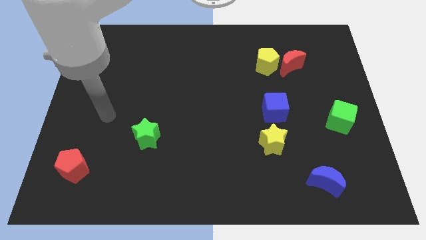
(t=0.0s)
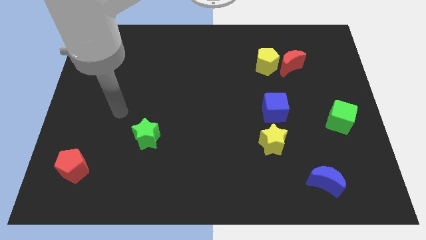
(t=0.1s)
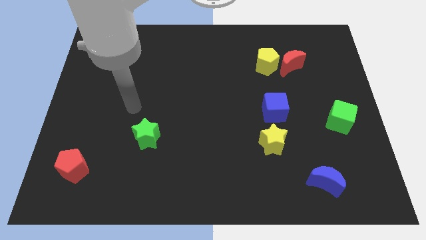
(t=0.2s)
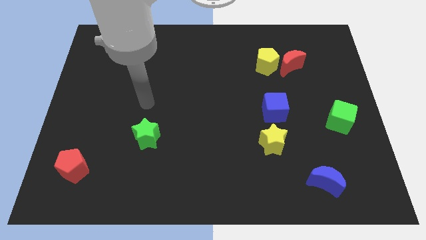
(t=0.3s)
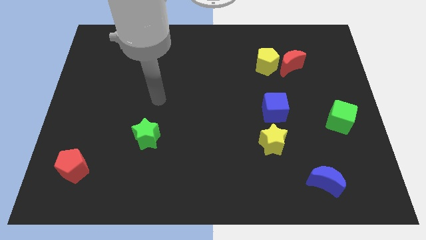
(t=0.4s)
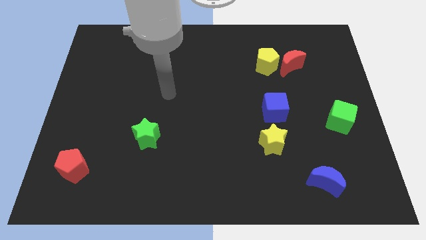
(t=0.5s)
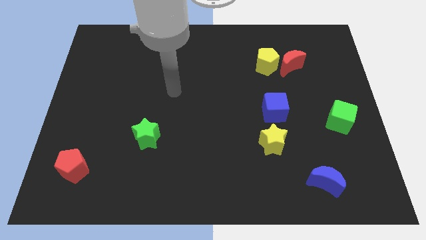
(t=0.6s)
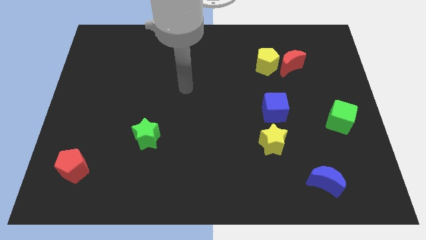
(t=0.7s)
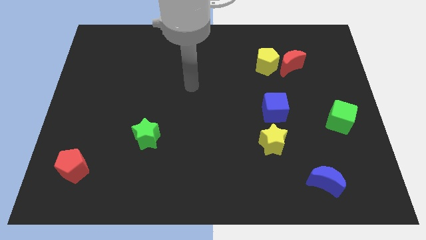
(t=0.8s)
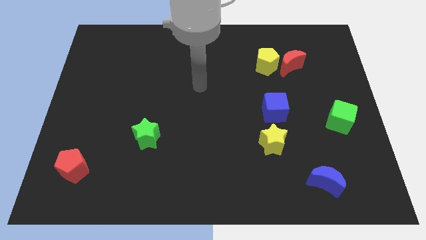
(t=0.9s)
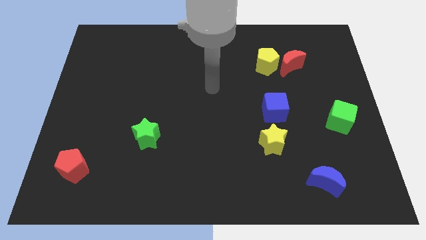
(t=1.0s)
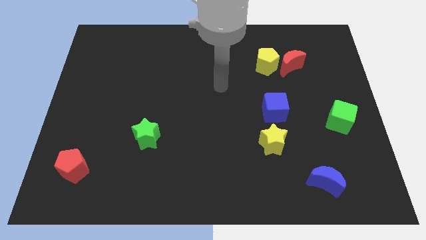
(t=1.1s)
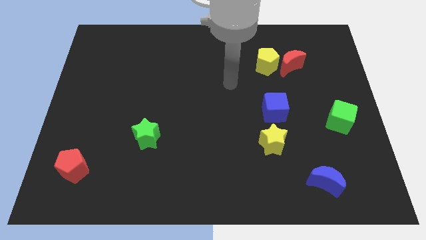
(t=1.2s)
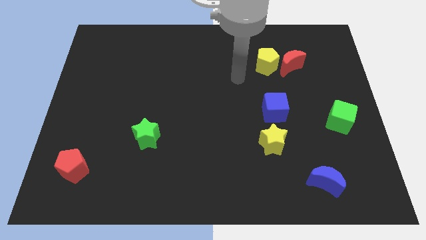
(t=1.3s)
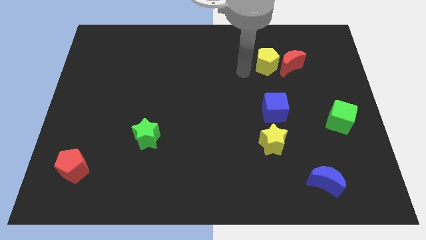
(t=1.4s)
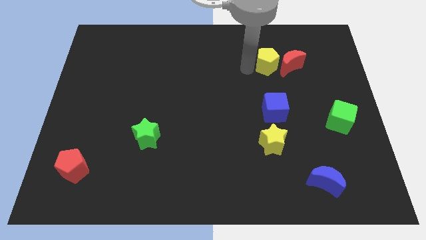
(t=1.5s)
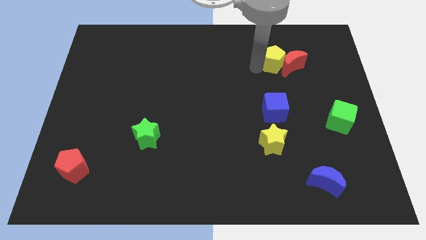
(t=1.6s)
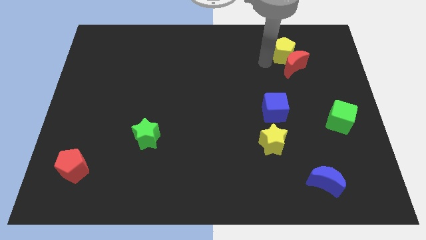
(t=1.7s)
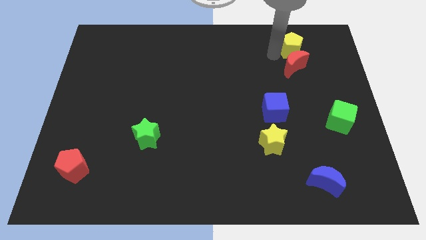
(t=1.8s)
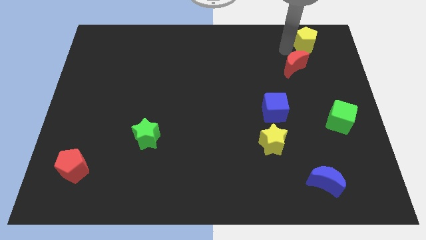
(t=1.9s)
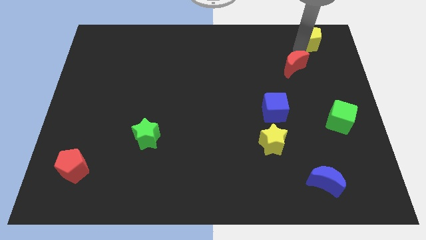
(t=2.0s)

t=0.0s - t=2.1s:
separate the red moon from the yellow pentagon

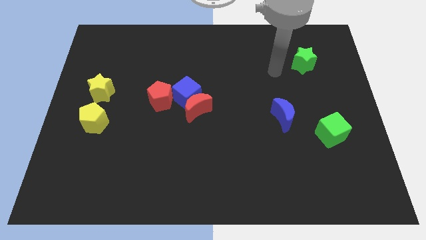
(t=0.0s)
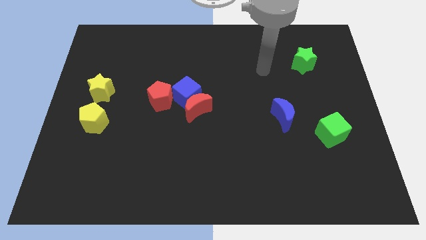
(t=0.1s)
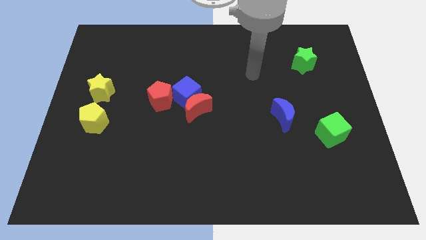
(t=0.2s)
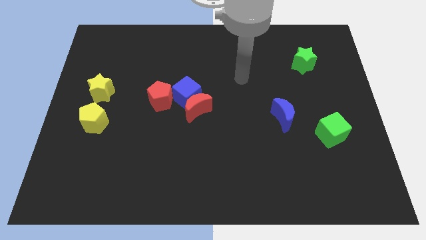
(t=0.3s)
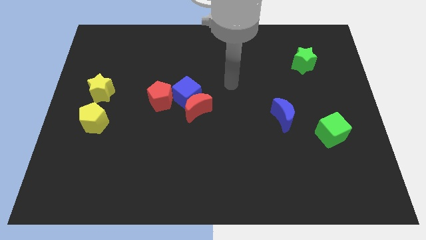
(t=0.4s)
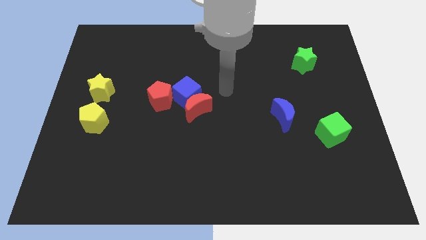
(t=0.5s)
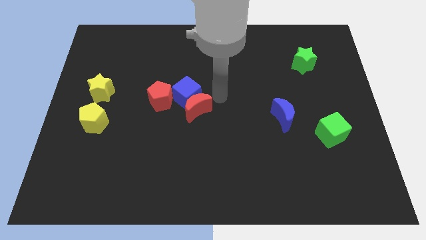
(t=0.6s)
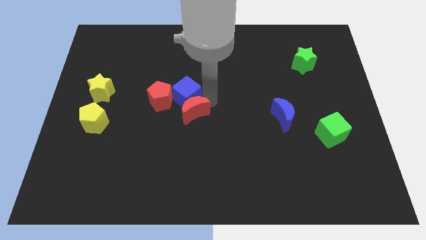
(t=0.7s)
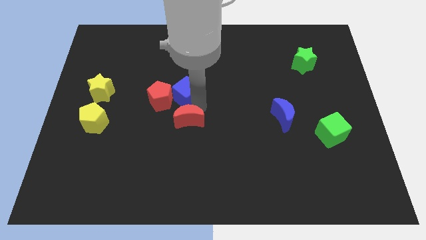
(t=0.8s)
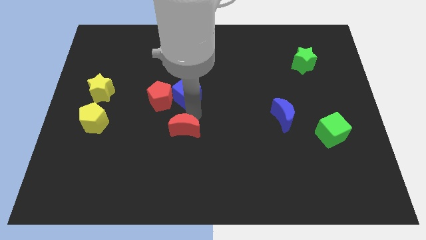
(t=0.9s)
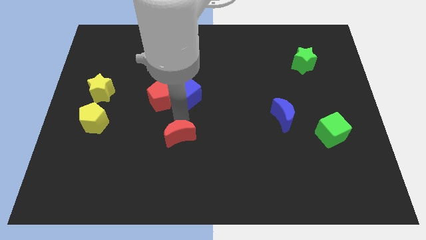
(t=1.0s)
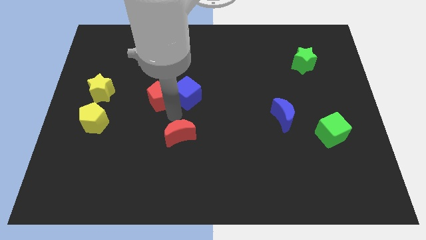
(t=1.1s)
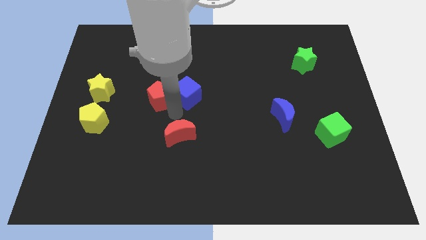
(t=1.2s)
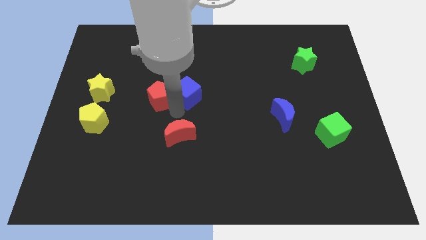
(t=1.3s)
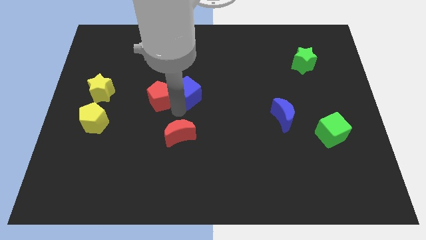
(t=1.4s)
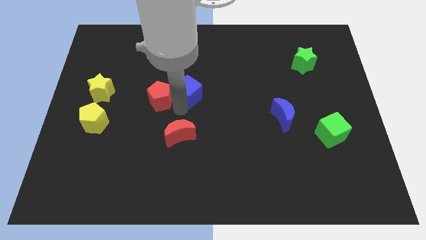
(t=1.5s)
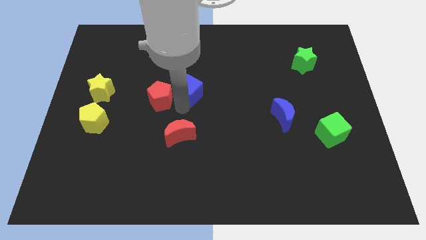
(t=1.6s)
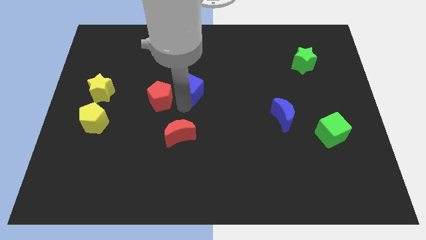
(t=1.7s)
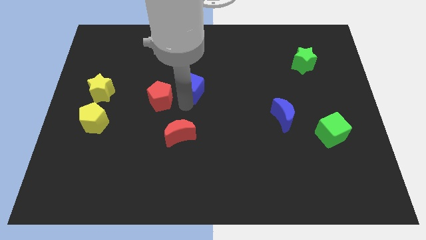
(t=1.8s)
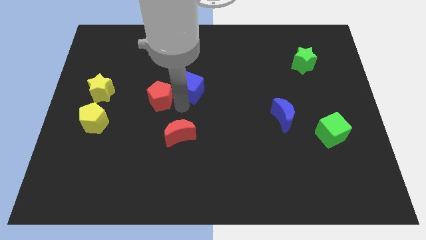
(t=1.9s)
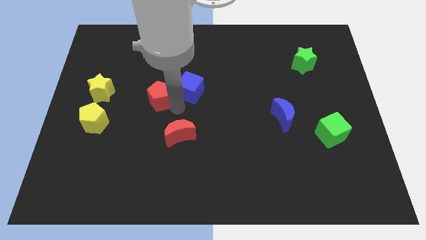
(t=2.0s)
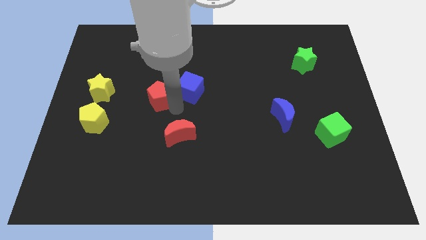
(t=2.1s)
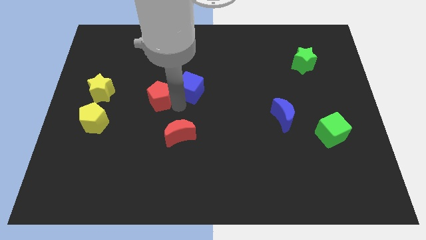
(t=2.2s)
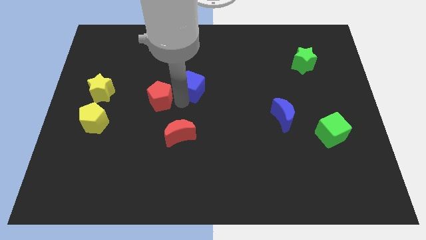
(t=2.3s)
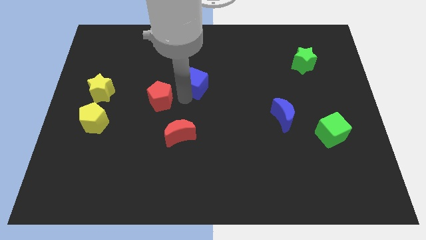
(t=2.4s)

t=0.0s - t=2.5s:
move the blue cube away from the red moon and red pentagon

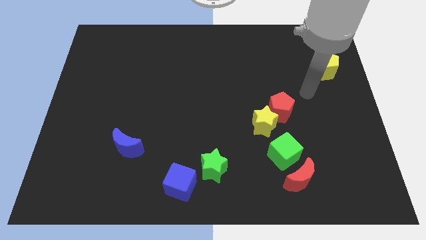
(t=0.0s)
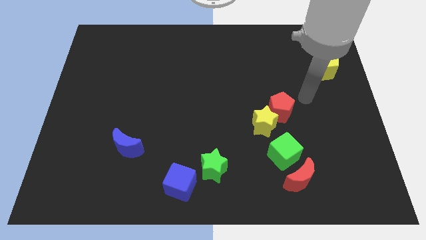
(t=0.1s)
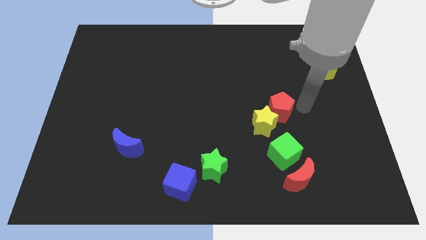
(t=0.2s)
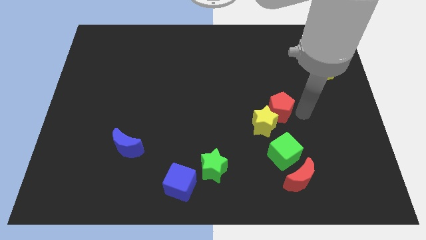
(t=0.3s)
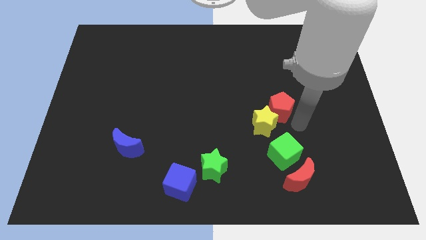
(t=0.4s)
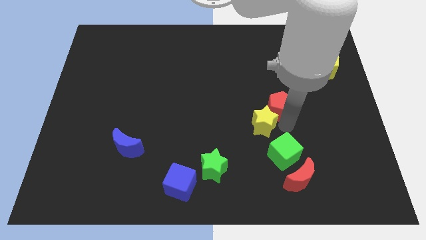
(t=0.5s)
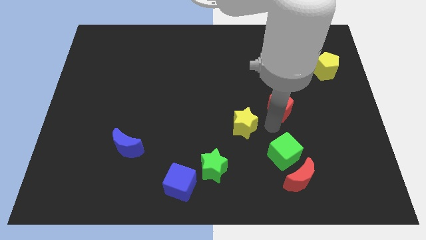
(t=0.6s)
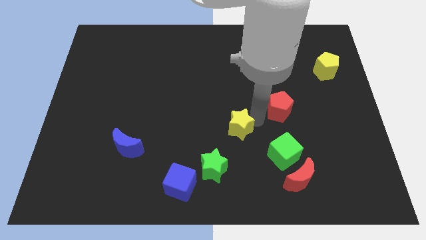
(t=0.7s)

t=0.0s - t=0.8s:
separate the red pentagon from the yellow star

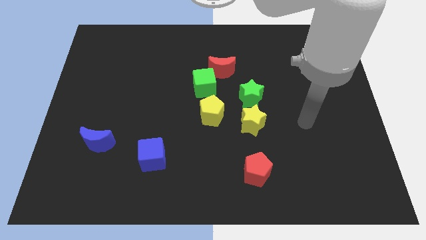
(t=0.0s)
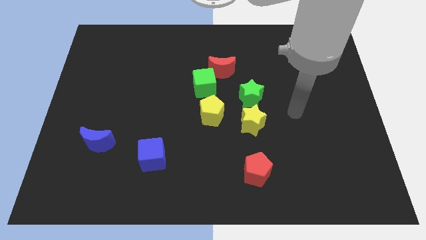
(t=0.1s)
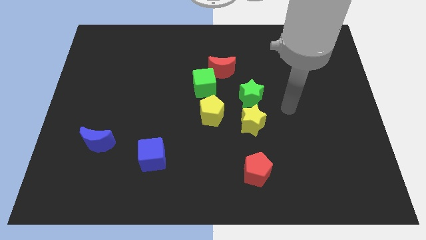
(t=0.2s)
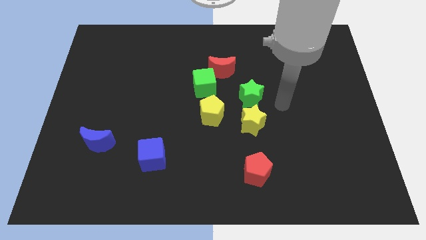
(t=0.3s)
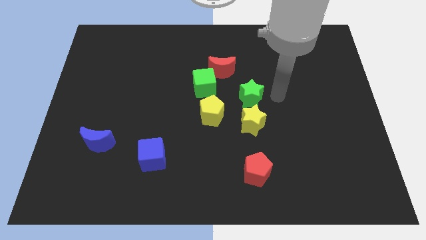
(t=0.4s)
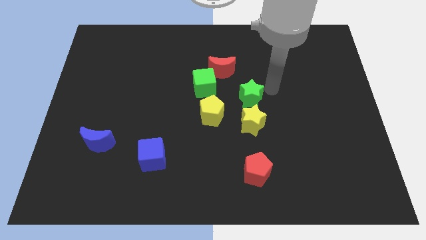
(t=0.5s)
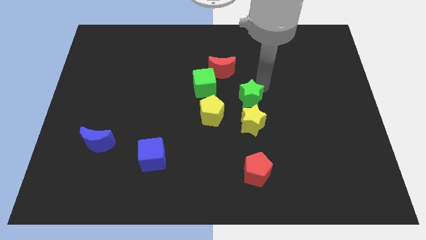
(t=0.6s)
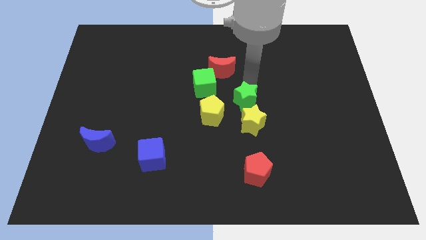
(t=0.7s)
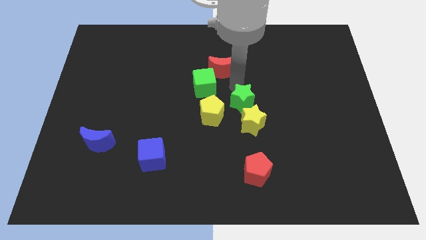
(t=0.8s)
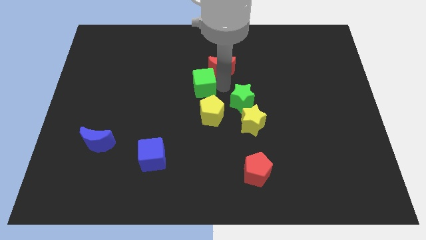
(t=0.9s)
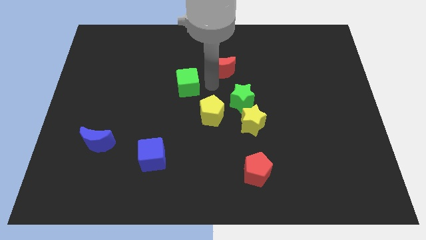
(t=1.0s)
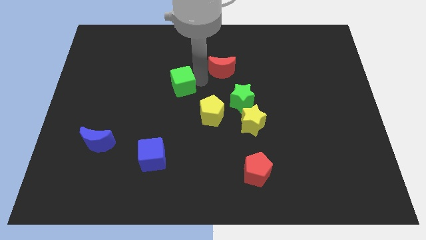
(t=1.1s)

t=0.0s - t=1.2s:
pull the red moon apart from the green cube

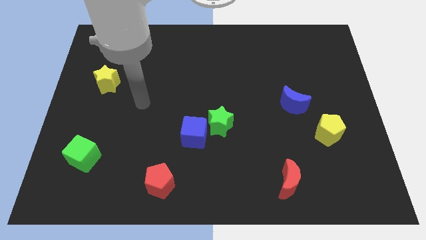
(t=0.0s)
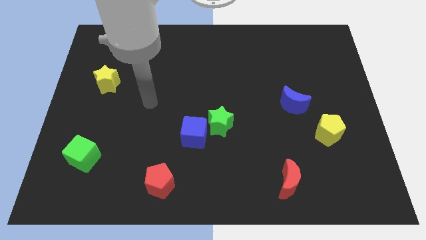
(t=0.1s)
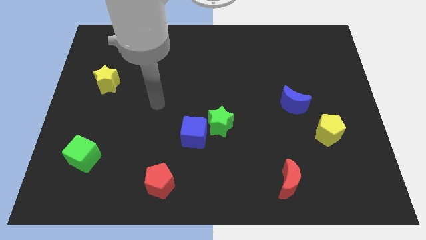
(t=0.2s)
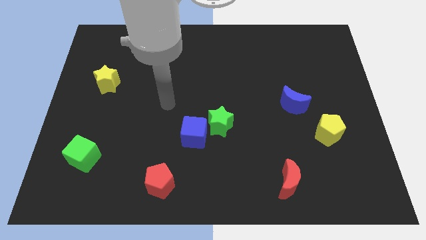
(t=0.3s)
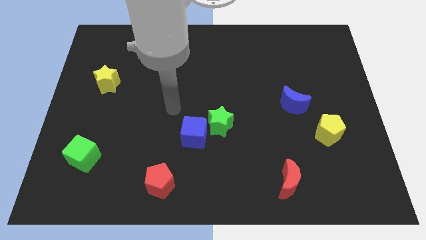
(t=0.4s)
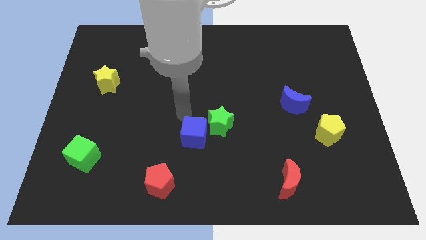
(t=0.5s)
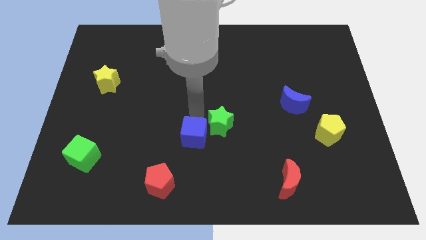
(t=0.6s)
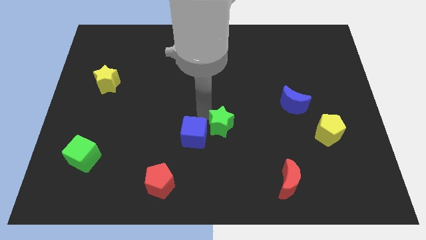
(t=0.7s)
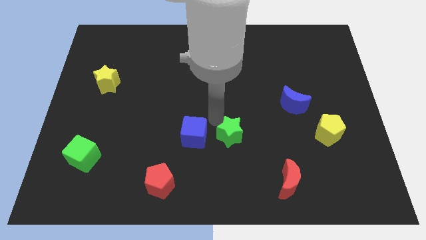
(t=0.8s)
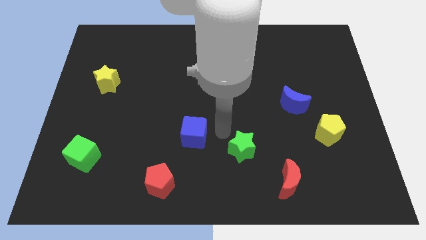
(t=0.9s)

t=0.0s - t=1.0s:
pull the blue cube apart from the green star

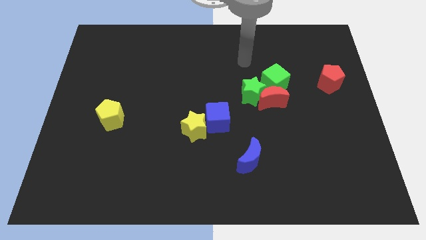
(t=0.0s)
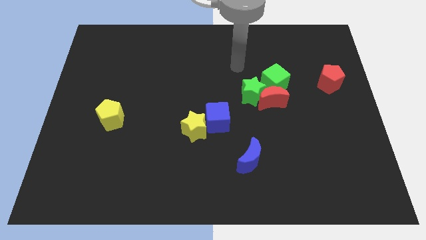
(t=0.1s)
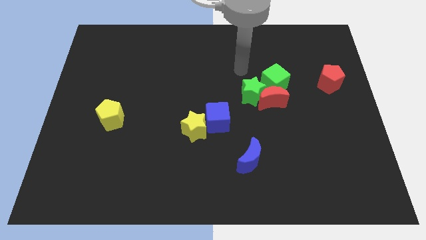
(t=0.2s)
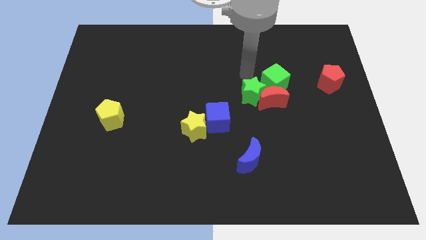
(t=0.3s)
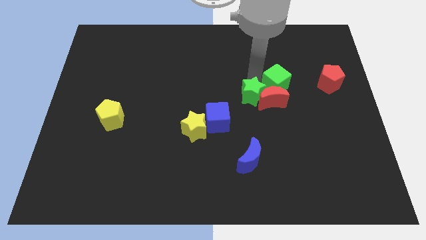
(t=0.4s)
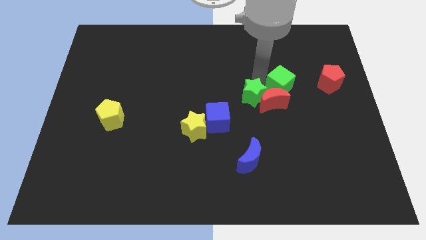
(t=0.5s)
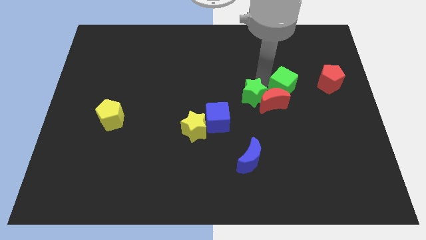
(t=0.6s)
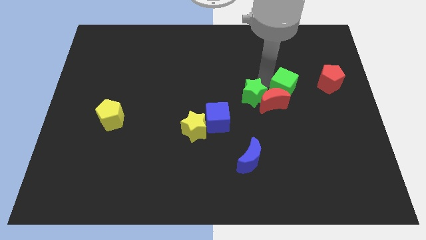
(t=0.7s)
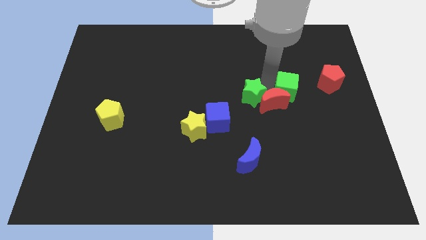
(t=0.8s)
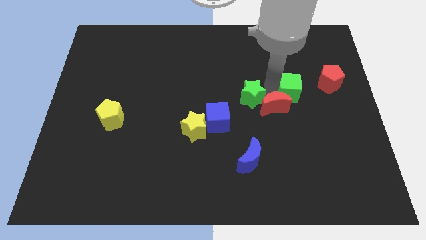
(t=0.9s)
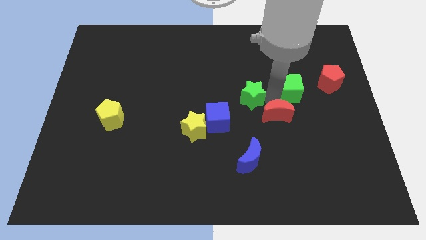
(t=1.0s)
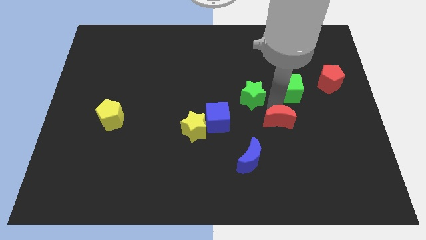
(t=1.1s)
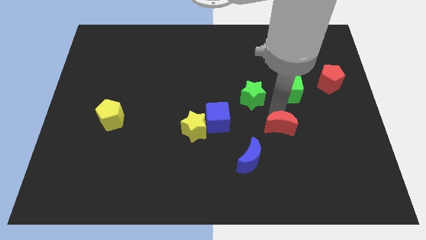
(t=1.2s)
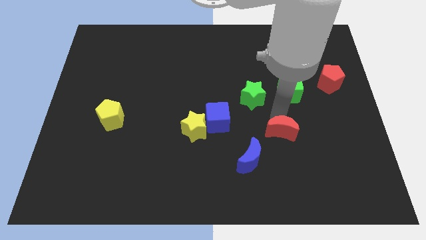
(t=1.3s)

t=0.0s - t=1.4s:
pull the red moon apart from the green star and green cube

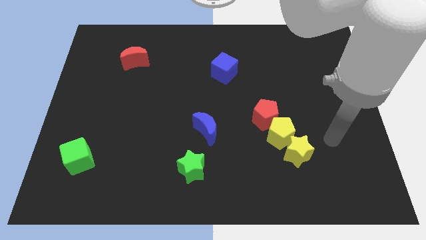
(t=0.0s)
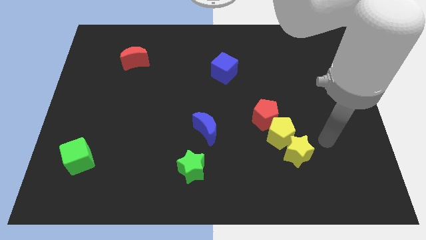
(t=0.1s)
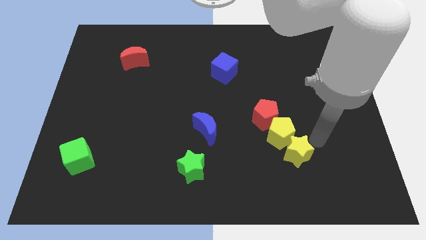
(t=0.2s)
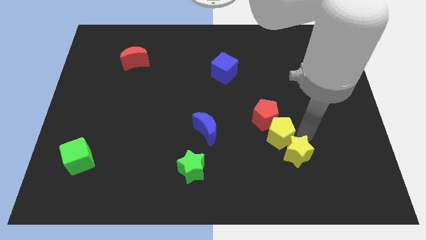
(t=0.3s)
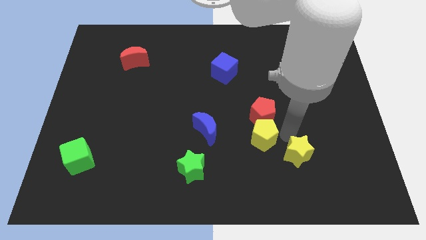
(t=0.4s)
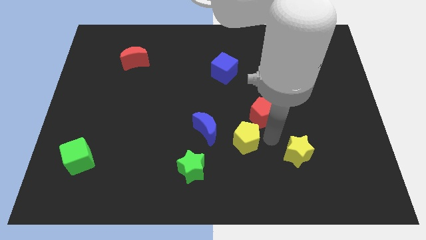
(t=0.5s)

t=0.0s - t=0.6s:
move the yellow star away from the yellow pentagon
